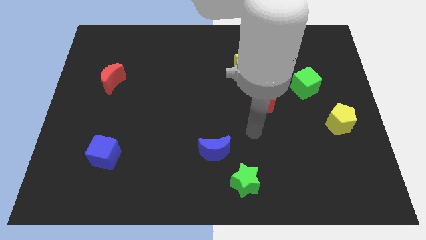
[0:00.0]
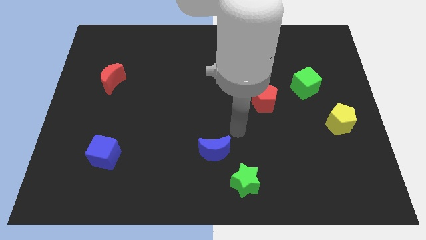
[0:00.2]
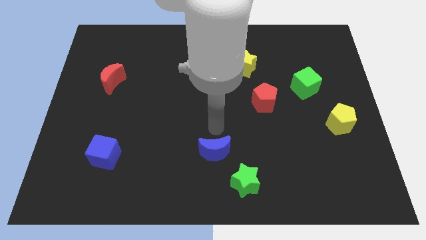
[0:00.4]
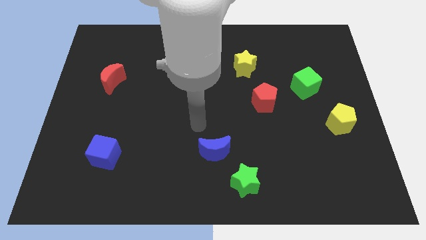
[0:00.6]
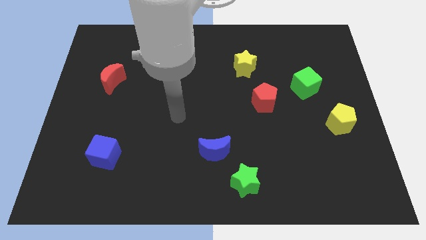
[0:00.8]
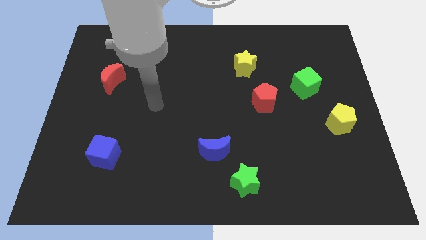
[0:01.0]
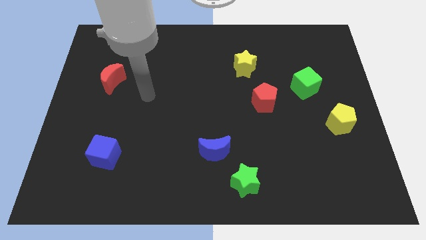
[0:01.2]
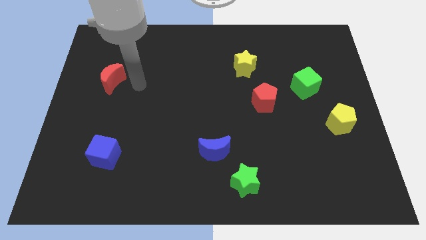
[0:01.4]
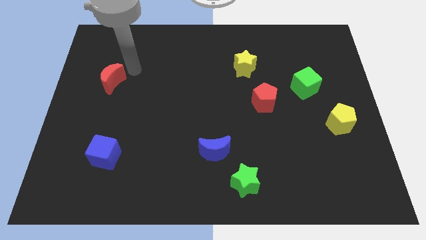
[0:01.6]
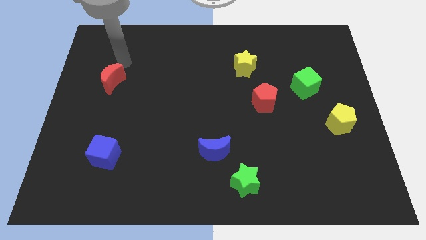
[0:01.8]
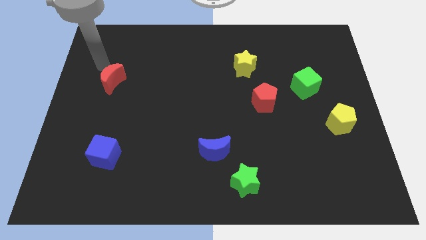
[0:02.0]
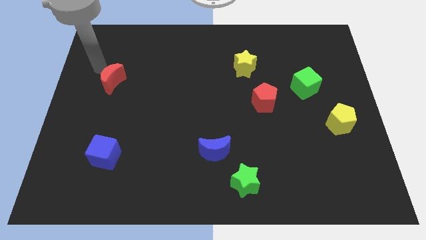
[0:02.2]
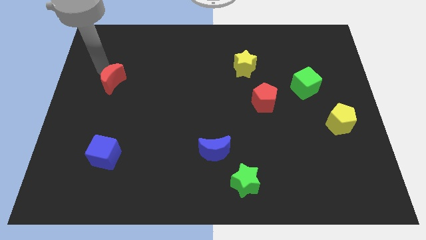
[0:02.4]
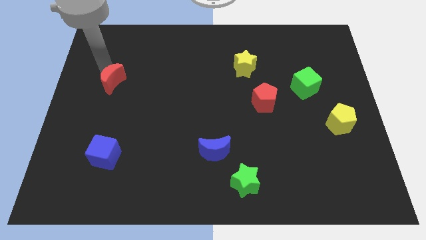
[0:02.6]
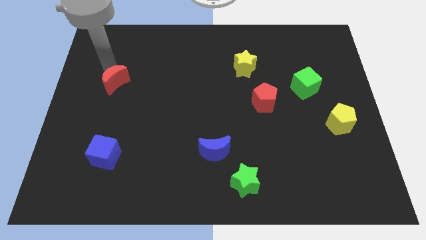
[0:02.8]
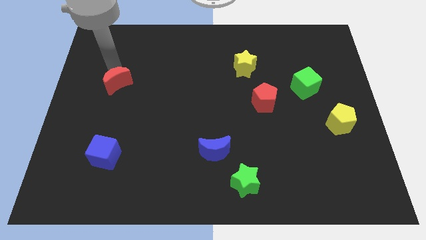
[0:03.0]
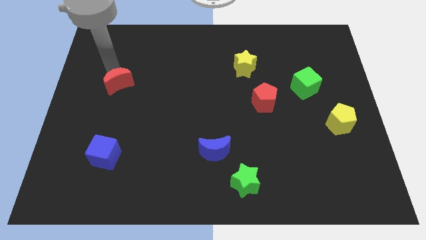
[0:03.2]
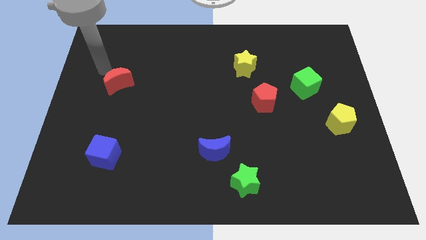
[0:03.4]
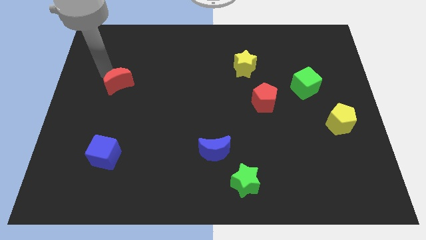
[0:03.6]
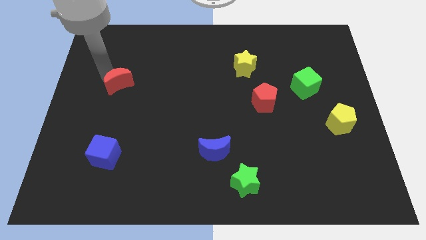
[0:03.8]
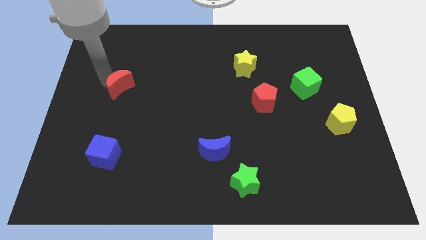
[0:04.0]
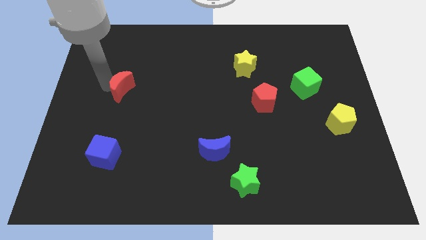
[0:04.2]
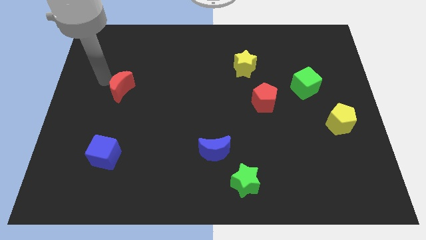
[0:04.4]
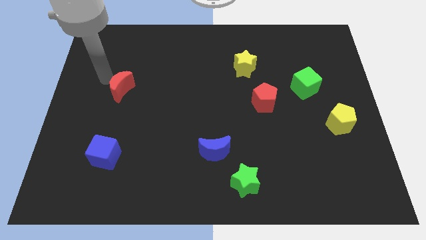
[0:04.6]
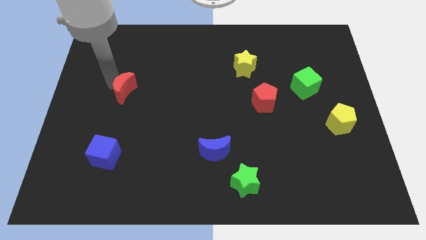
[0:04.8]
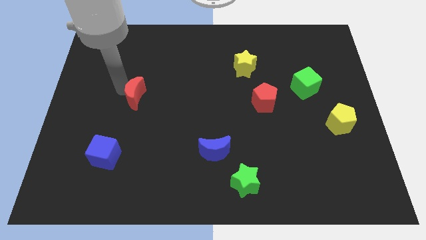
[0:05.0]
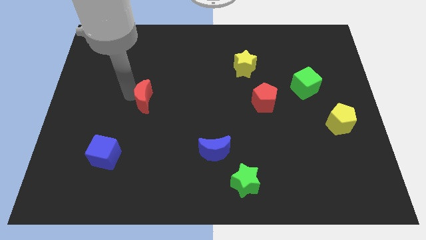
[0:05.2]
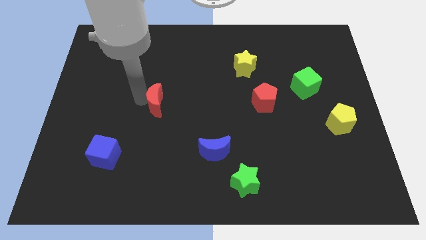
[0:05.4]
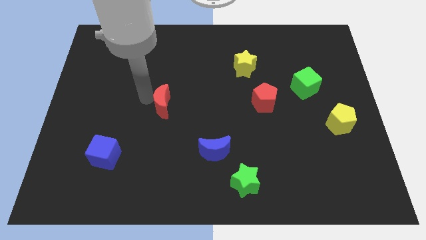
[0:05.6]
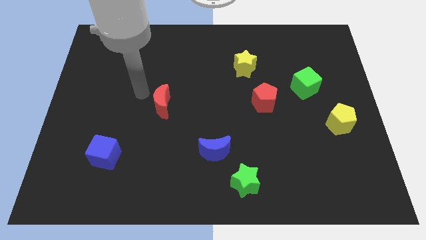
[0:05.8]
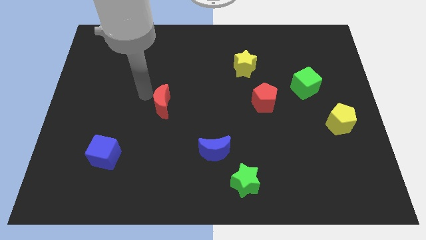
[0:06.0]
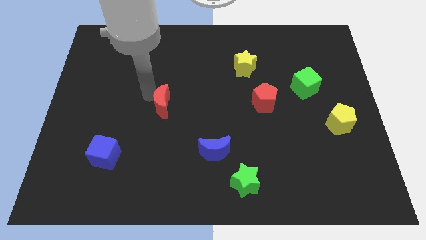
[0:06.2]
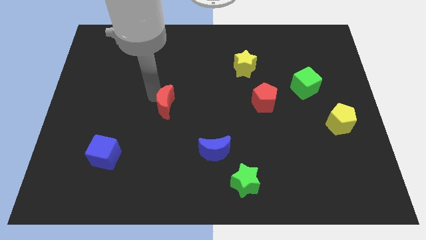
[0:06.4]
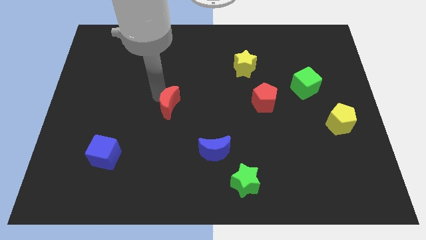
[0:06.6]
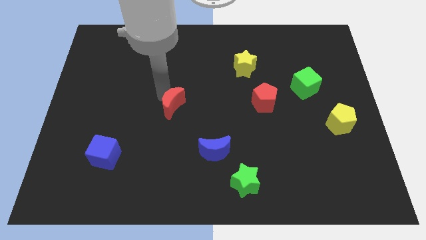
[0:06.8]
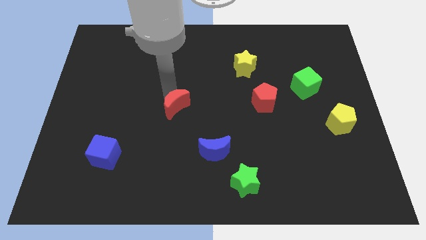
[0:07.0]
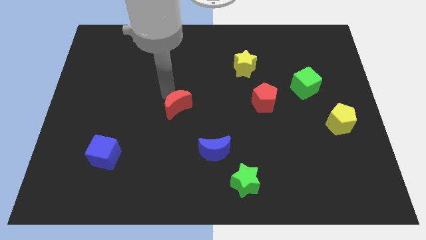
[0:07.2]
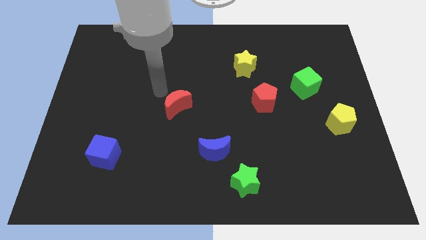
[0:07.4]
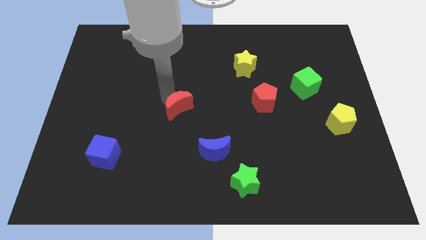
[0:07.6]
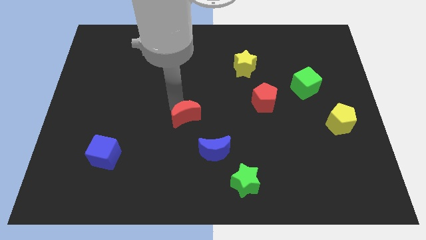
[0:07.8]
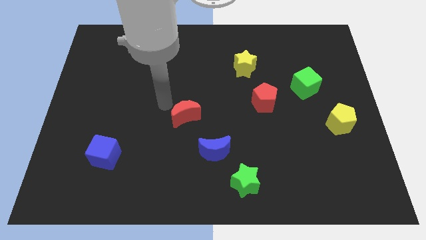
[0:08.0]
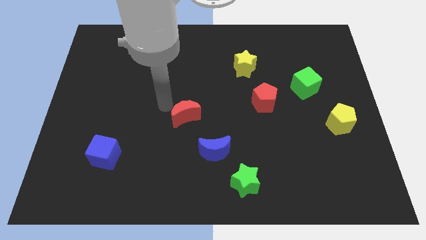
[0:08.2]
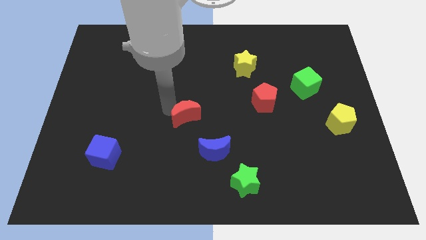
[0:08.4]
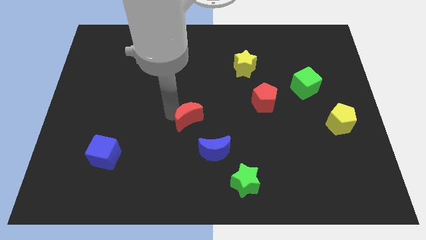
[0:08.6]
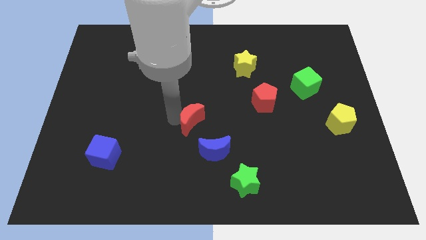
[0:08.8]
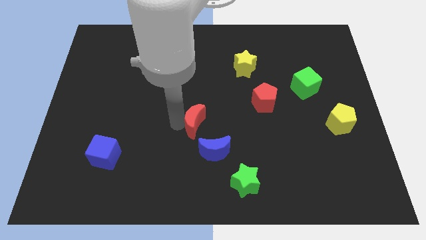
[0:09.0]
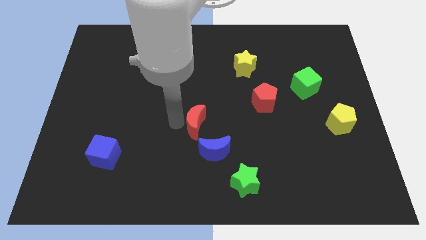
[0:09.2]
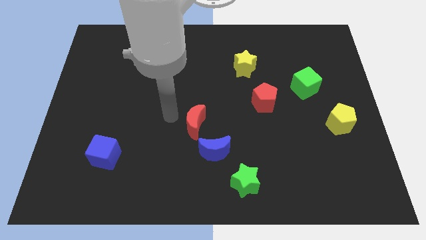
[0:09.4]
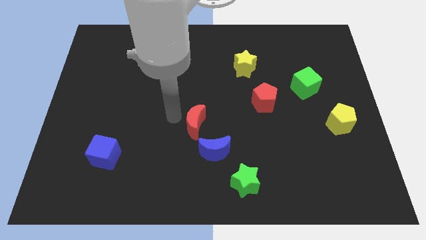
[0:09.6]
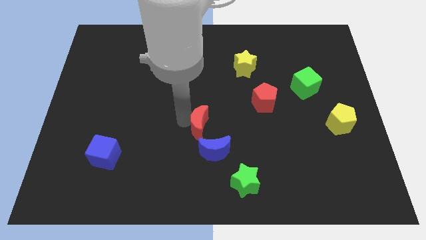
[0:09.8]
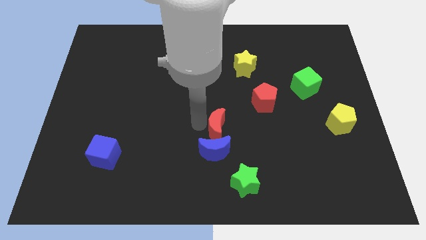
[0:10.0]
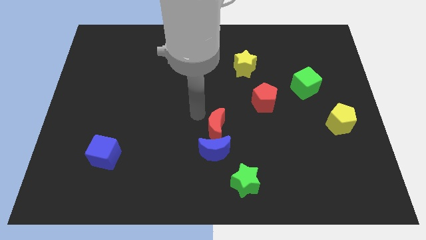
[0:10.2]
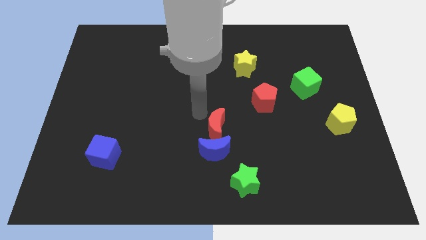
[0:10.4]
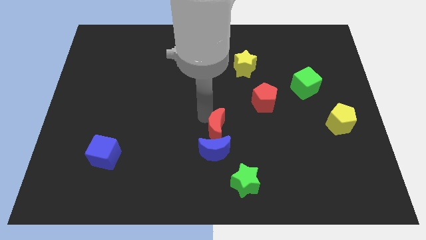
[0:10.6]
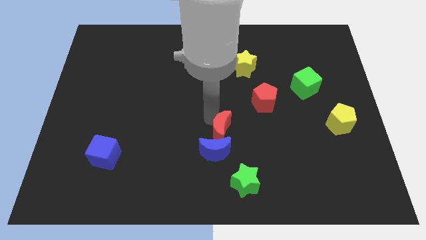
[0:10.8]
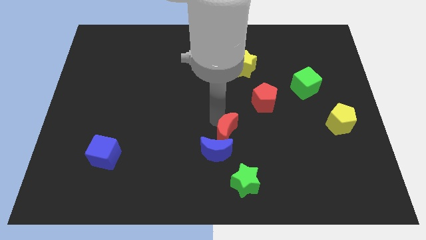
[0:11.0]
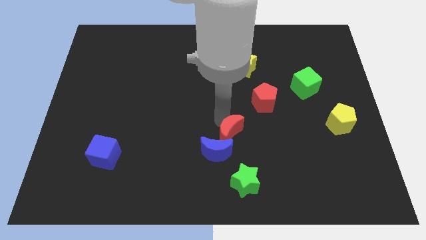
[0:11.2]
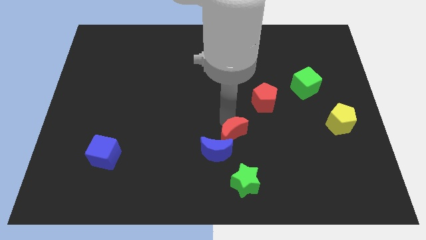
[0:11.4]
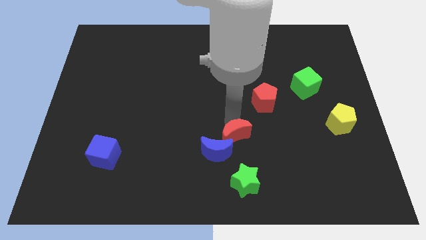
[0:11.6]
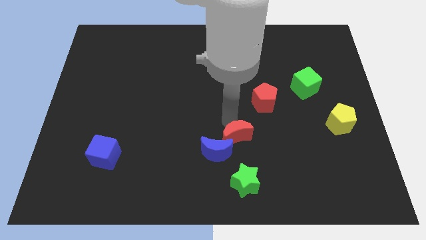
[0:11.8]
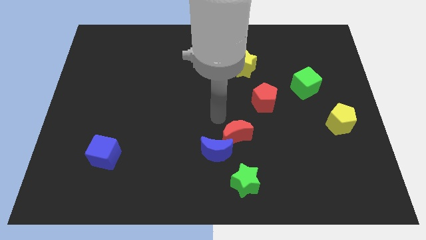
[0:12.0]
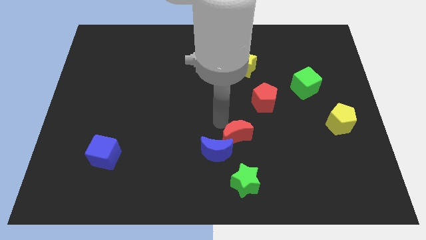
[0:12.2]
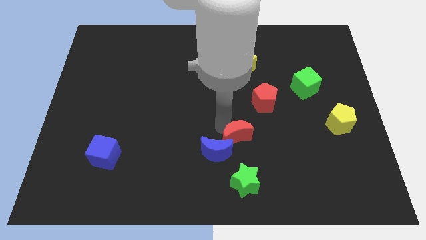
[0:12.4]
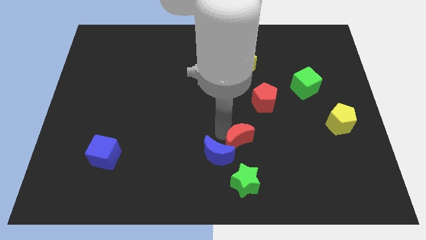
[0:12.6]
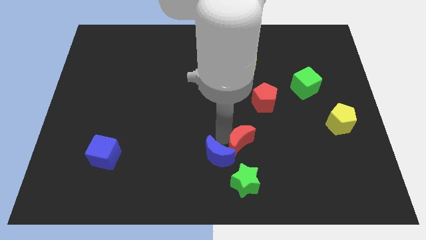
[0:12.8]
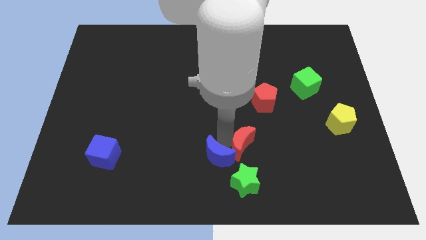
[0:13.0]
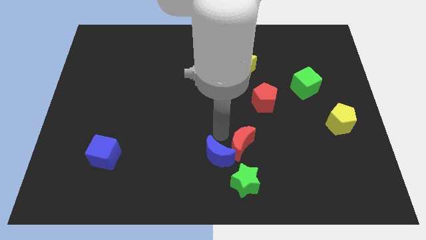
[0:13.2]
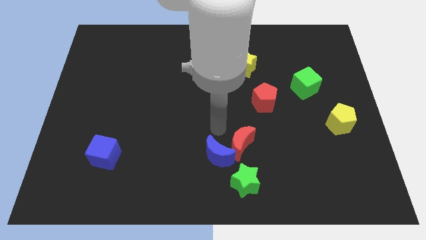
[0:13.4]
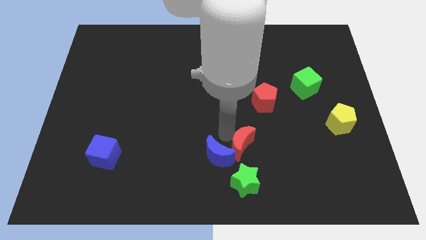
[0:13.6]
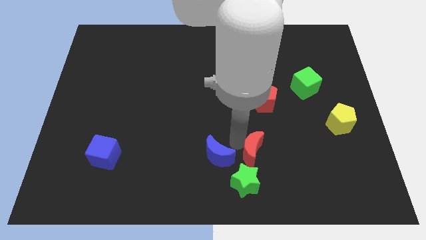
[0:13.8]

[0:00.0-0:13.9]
push the red moon to the top right of the green star
